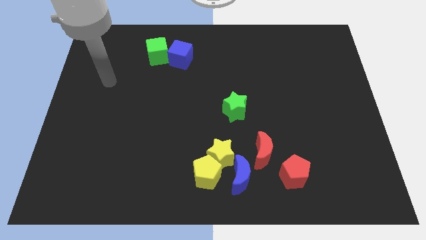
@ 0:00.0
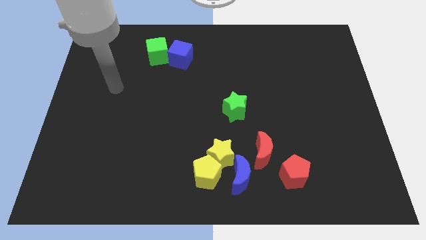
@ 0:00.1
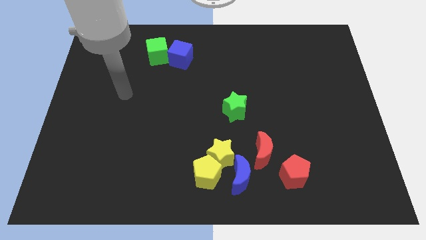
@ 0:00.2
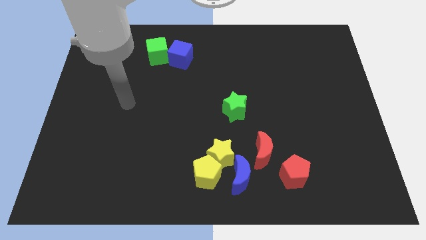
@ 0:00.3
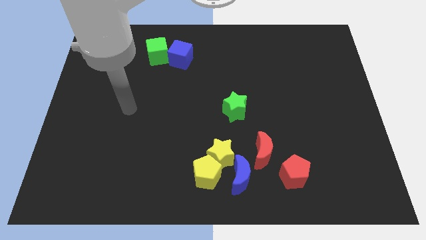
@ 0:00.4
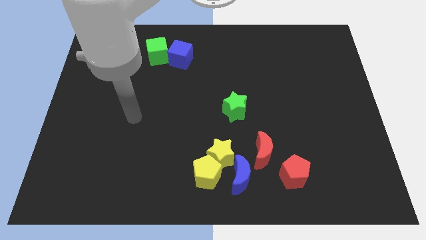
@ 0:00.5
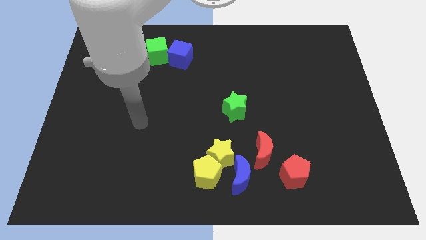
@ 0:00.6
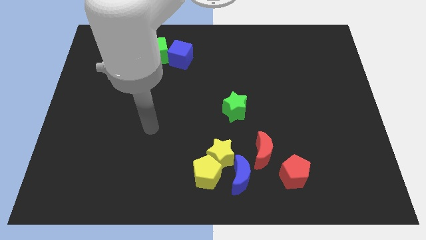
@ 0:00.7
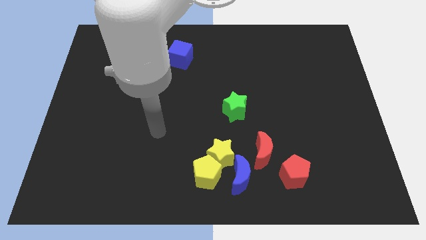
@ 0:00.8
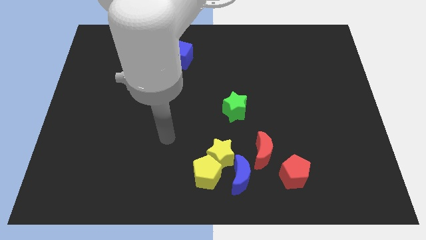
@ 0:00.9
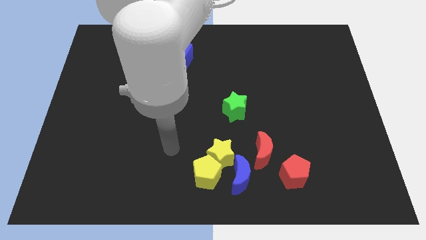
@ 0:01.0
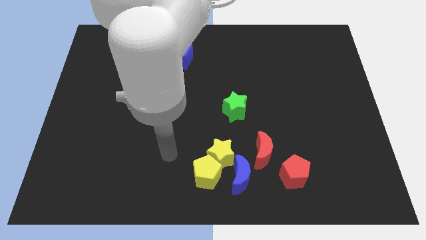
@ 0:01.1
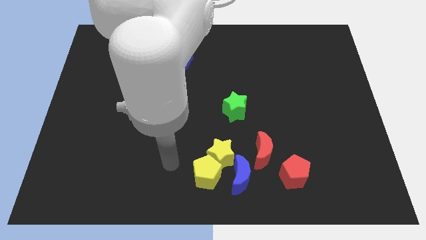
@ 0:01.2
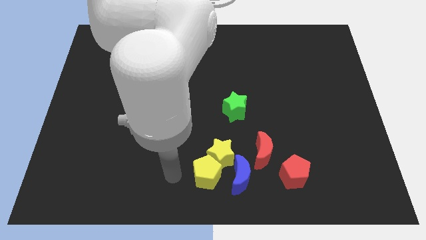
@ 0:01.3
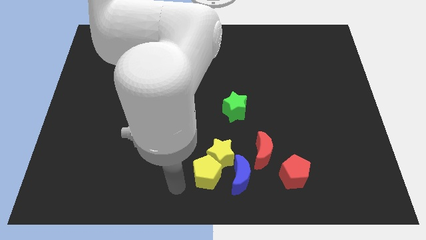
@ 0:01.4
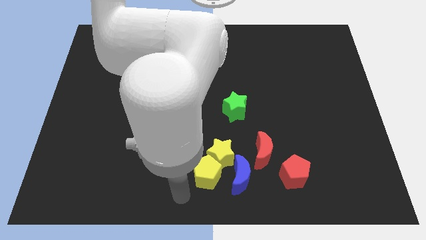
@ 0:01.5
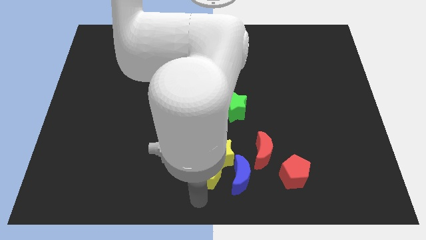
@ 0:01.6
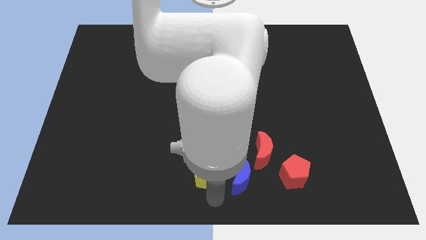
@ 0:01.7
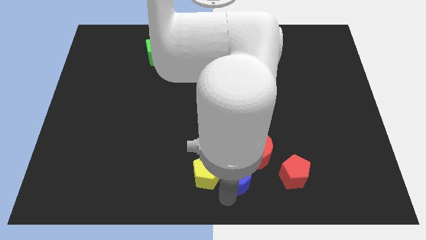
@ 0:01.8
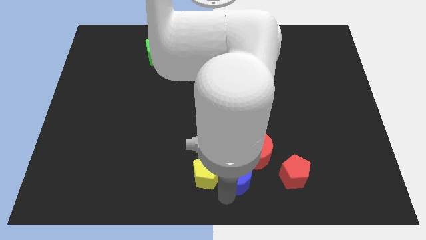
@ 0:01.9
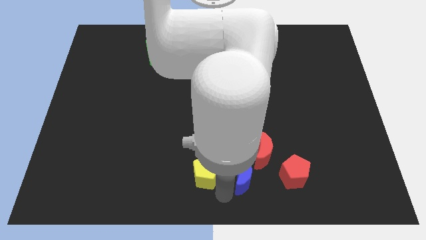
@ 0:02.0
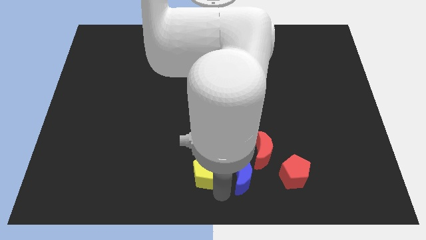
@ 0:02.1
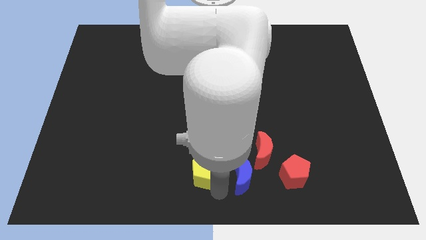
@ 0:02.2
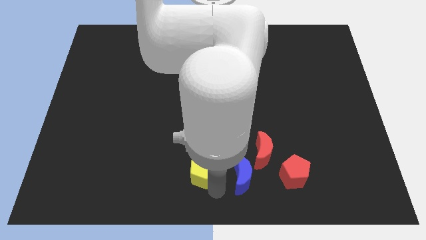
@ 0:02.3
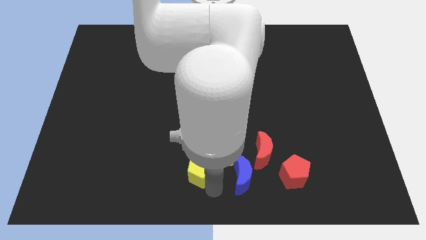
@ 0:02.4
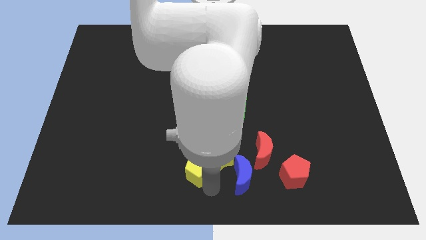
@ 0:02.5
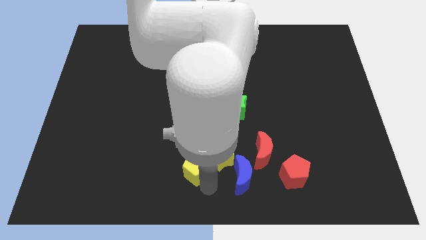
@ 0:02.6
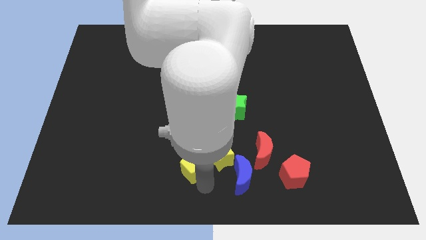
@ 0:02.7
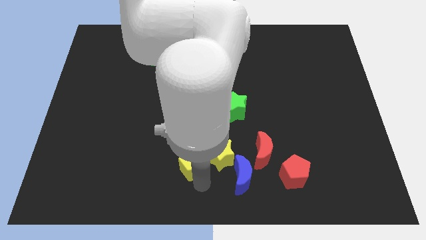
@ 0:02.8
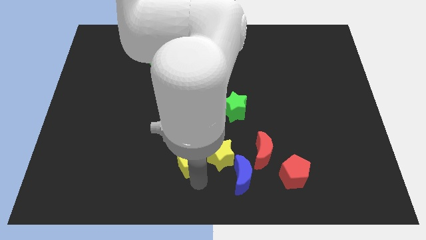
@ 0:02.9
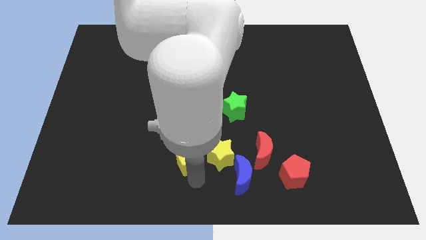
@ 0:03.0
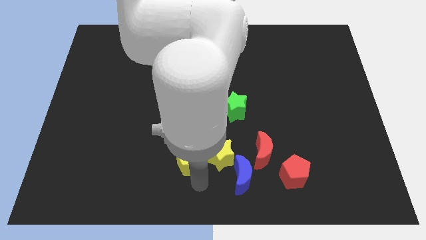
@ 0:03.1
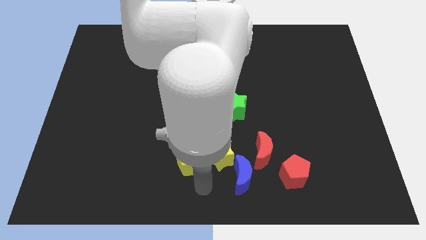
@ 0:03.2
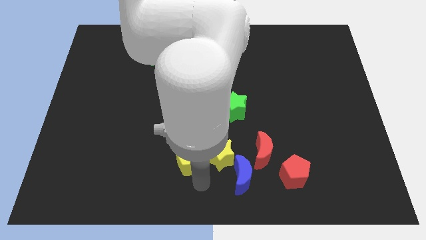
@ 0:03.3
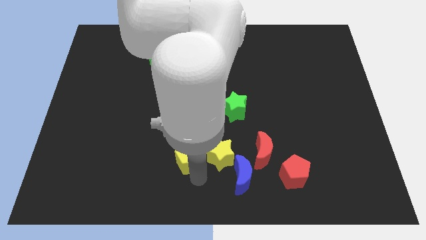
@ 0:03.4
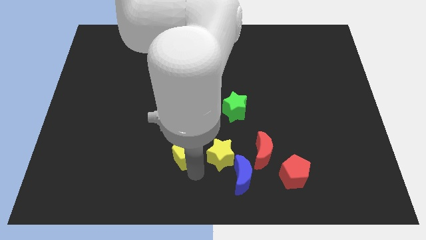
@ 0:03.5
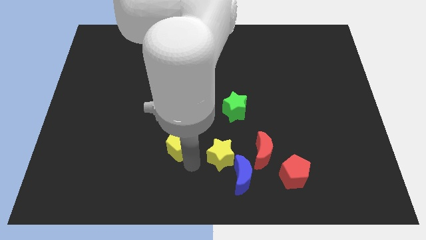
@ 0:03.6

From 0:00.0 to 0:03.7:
slide the yellow pentagon a little up and to the left

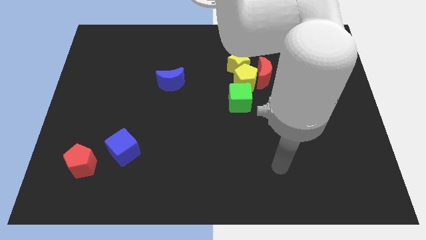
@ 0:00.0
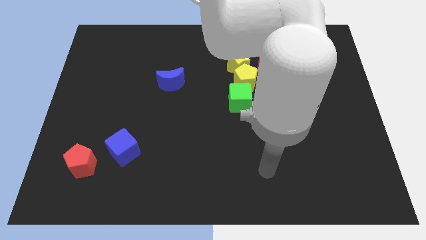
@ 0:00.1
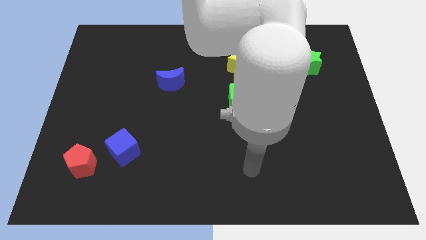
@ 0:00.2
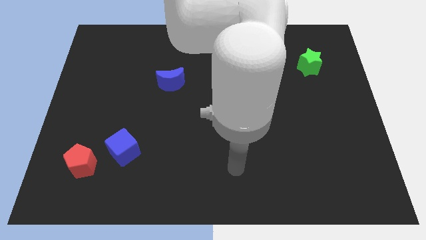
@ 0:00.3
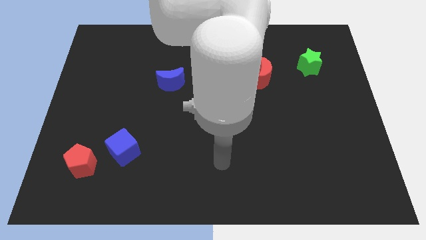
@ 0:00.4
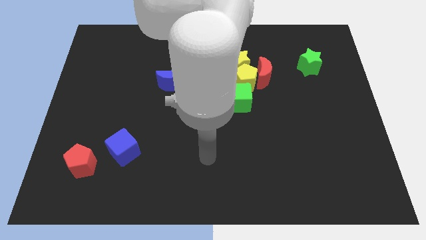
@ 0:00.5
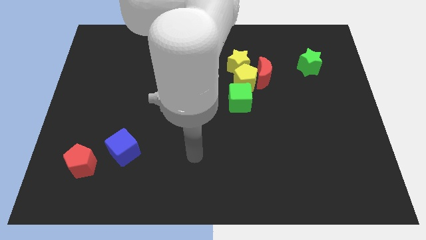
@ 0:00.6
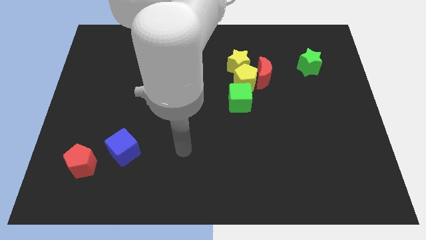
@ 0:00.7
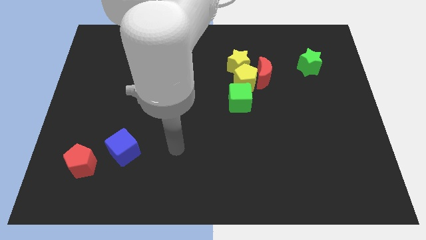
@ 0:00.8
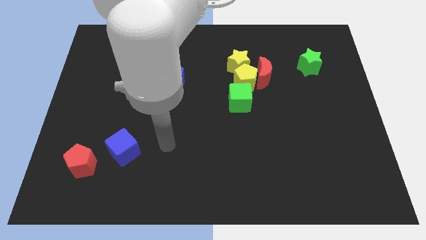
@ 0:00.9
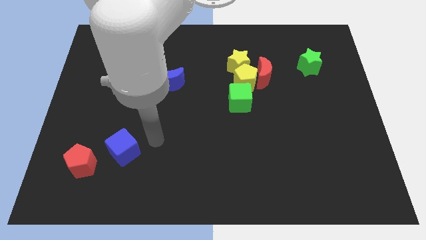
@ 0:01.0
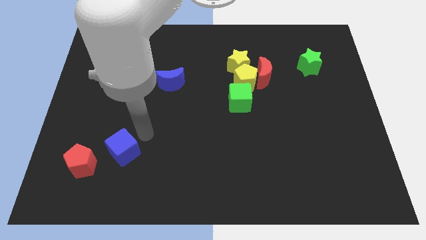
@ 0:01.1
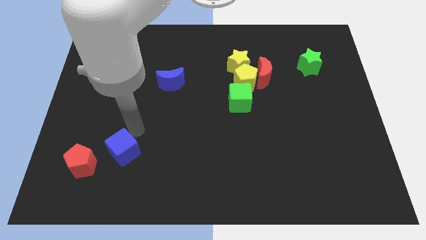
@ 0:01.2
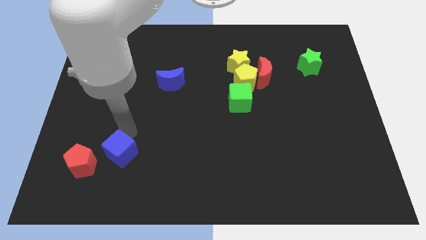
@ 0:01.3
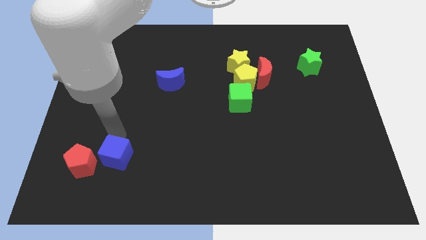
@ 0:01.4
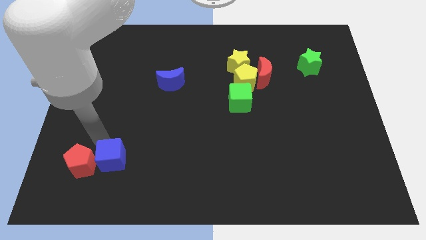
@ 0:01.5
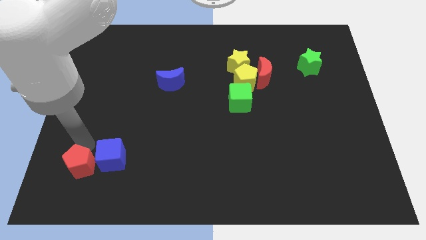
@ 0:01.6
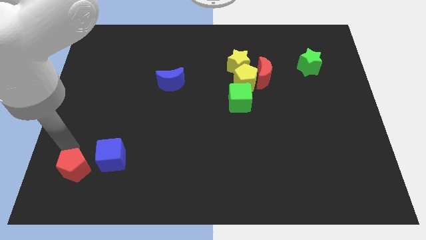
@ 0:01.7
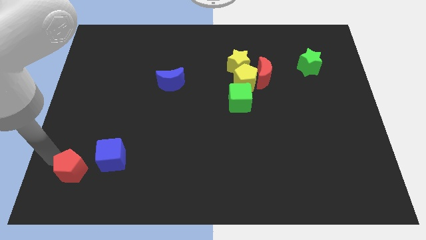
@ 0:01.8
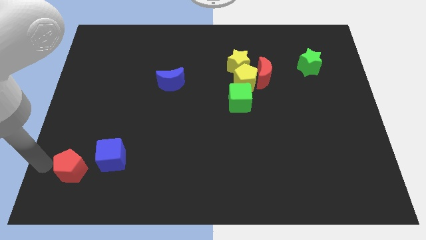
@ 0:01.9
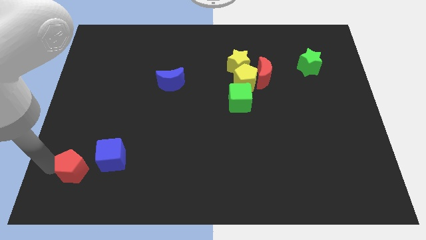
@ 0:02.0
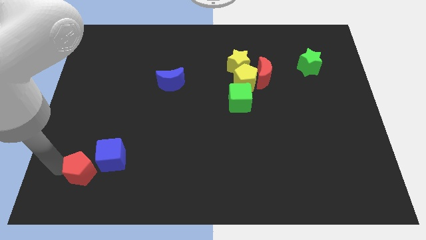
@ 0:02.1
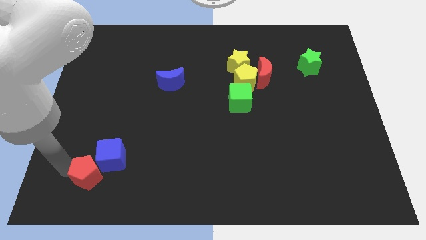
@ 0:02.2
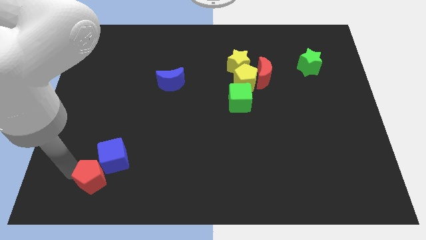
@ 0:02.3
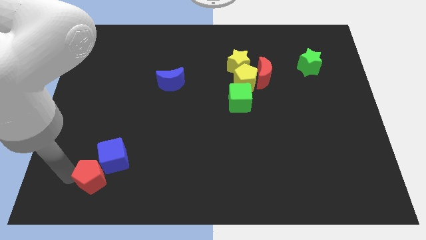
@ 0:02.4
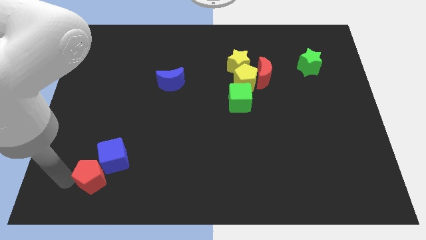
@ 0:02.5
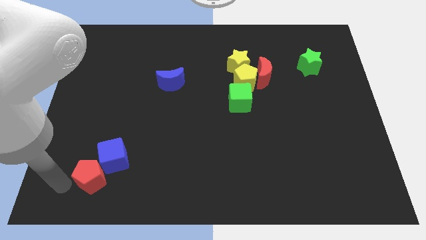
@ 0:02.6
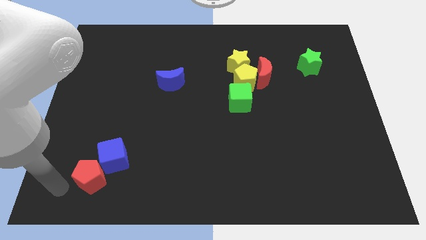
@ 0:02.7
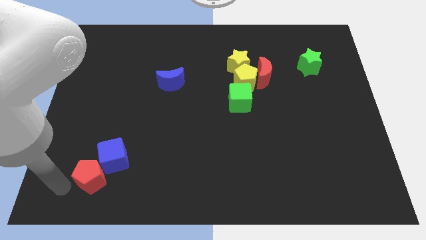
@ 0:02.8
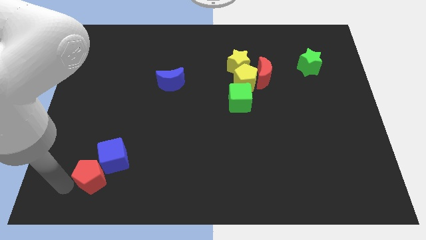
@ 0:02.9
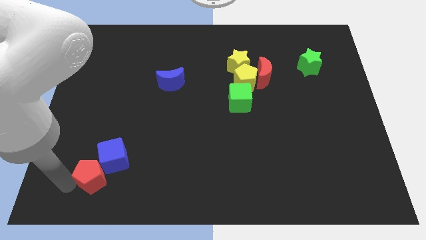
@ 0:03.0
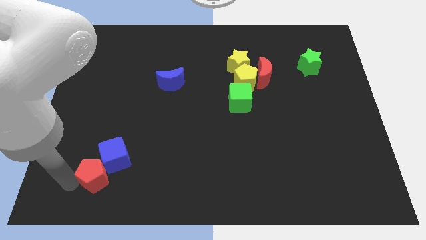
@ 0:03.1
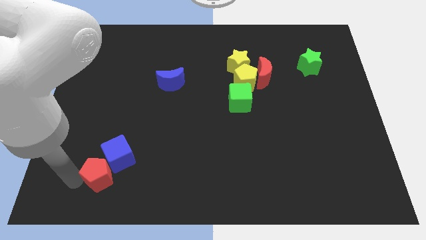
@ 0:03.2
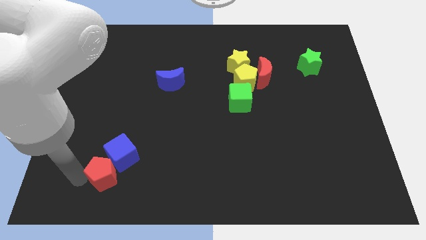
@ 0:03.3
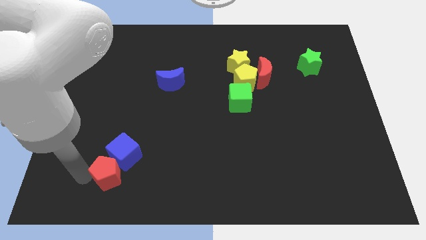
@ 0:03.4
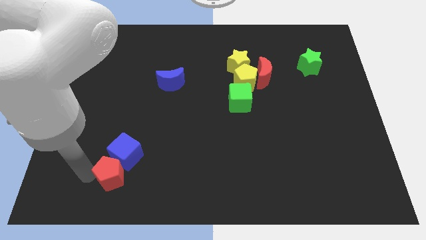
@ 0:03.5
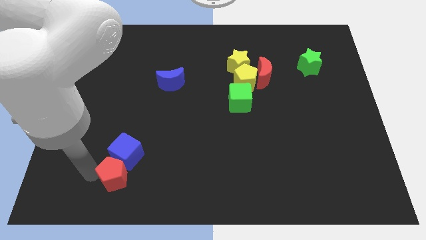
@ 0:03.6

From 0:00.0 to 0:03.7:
slide the red pentagon a little right

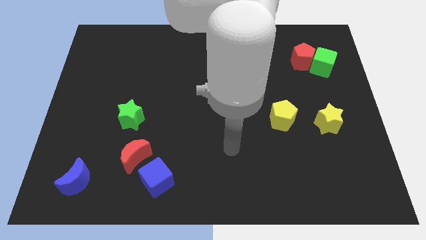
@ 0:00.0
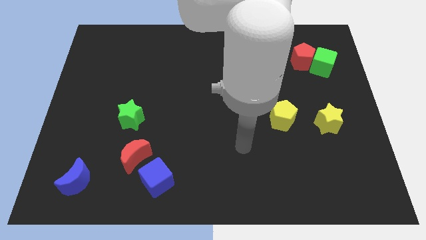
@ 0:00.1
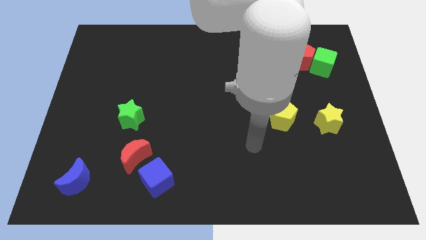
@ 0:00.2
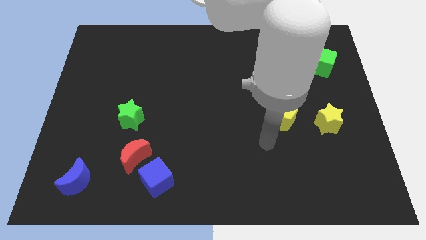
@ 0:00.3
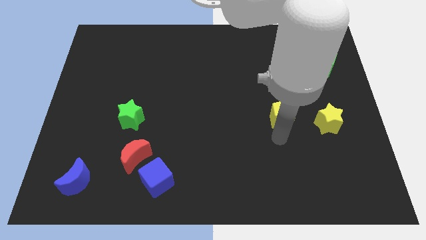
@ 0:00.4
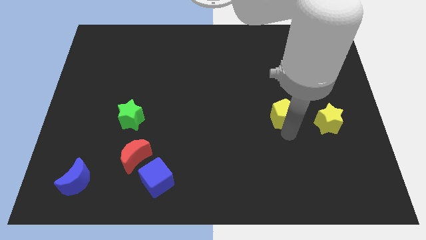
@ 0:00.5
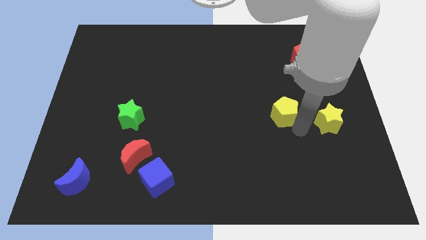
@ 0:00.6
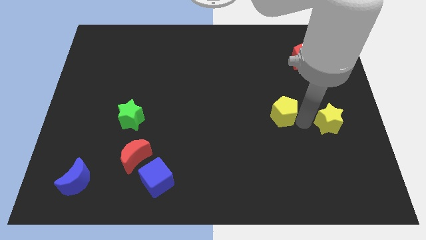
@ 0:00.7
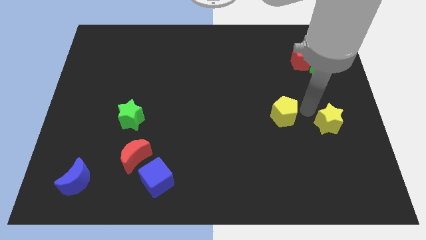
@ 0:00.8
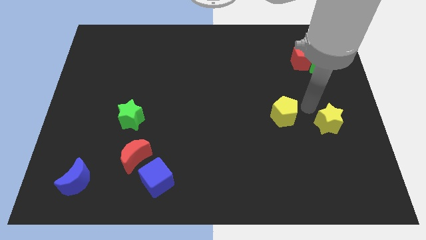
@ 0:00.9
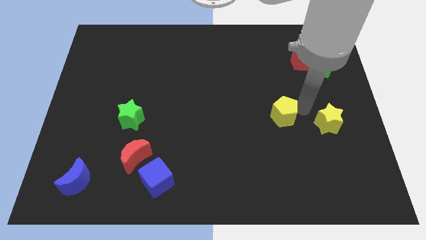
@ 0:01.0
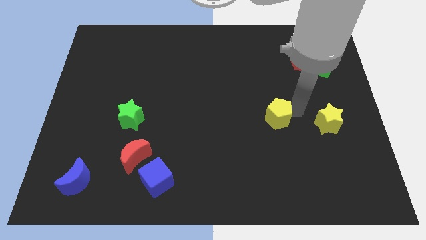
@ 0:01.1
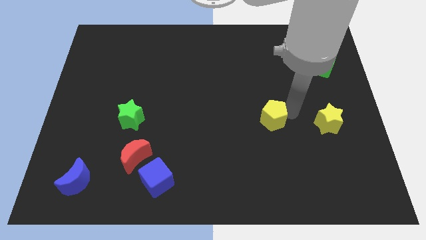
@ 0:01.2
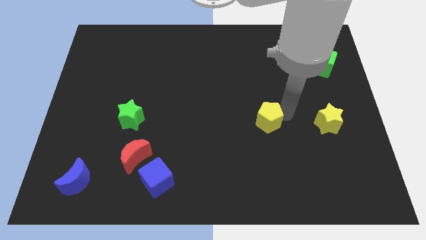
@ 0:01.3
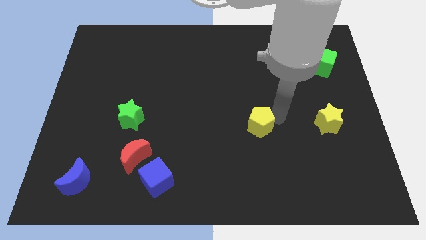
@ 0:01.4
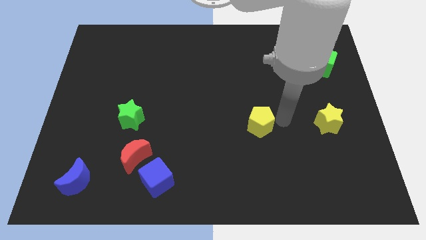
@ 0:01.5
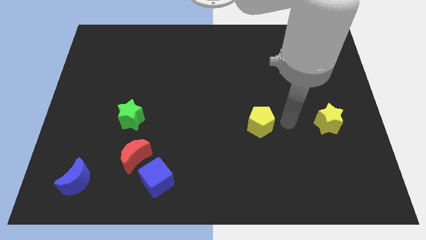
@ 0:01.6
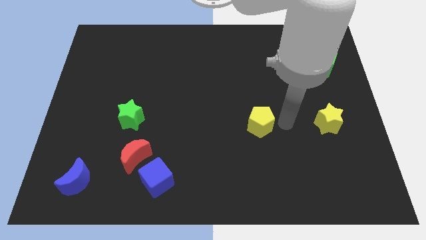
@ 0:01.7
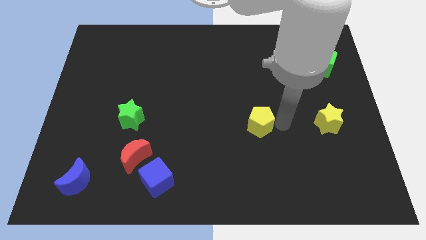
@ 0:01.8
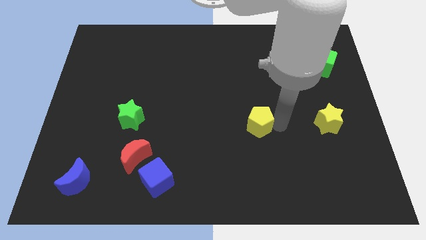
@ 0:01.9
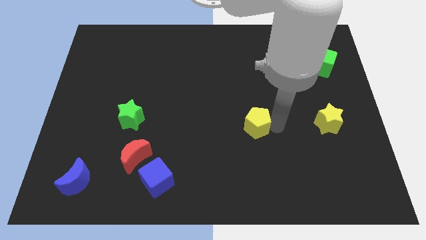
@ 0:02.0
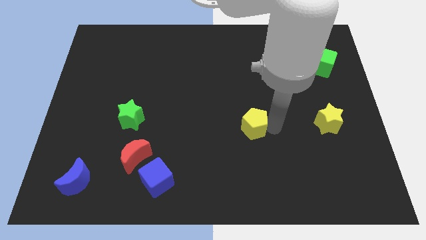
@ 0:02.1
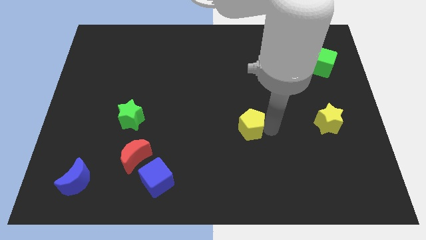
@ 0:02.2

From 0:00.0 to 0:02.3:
push the yellow pentagon left a bit
